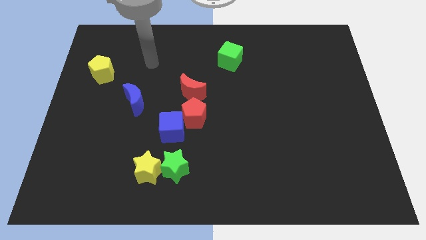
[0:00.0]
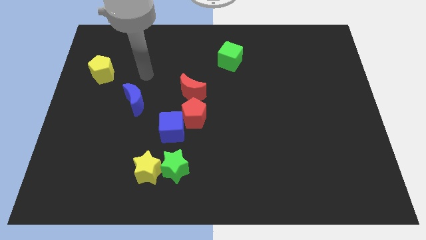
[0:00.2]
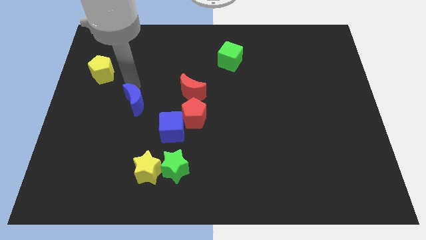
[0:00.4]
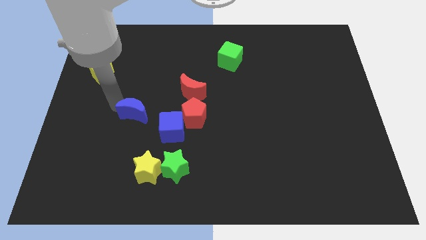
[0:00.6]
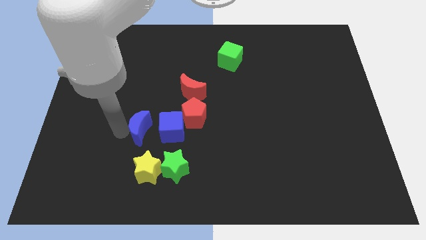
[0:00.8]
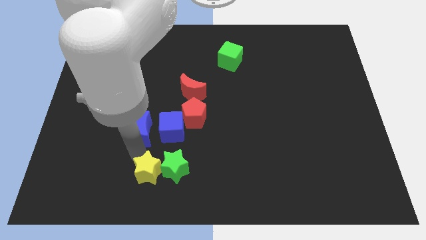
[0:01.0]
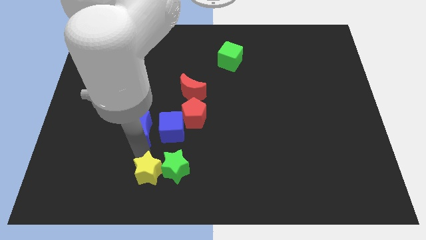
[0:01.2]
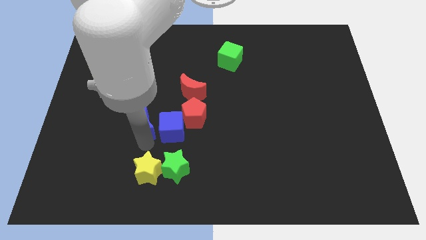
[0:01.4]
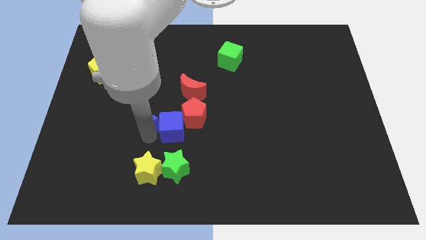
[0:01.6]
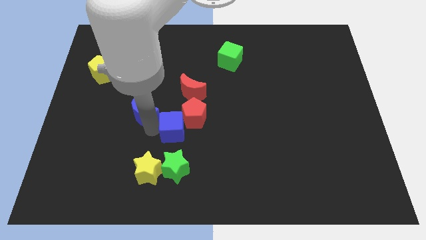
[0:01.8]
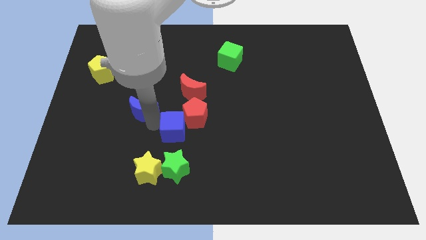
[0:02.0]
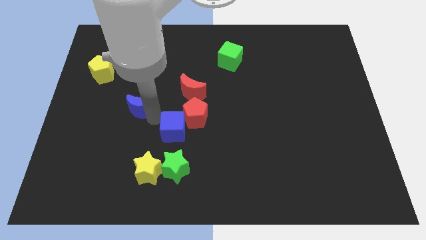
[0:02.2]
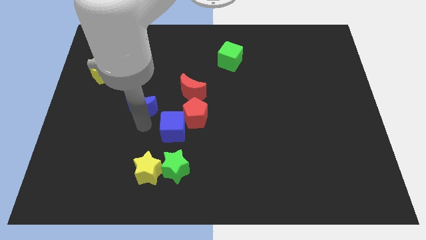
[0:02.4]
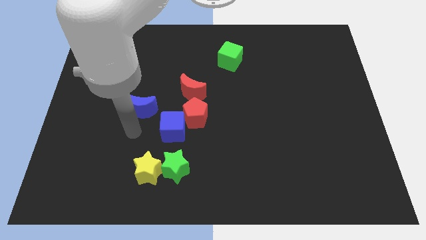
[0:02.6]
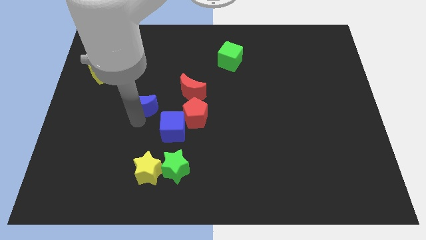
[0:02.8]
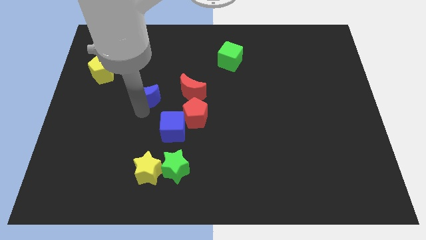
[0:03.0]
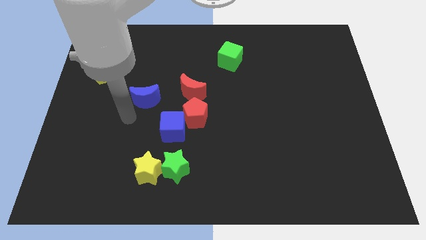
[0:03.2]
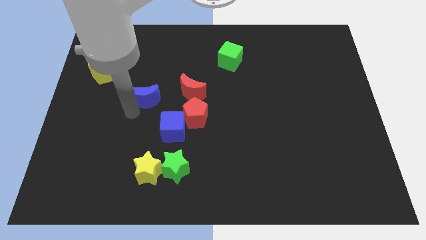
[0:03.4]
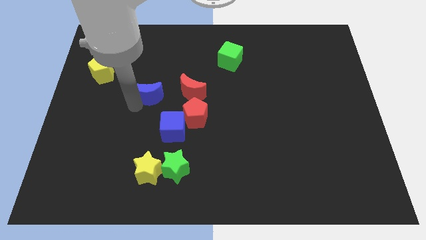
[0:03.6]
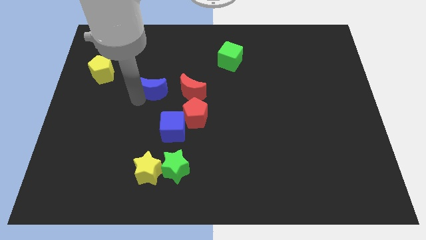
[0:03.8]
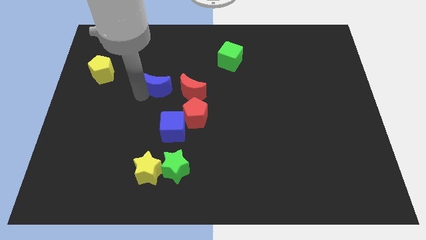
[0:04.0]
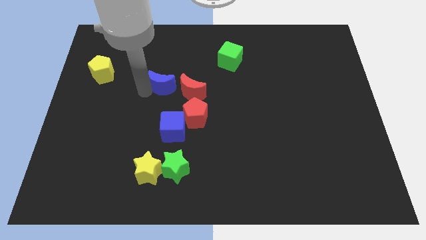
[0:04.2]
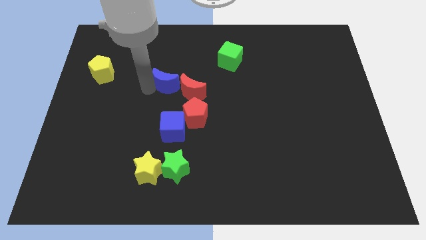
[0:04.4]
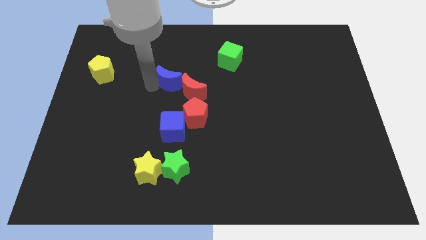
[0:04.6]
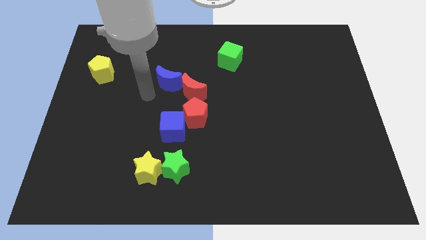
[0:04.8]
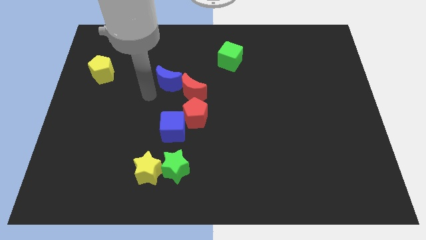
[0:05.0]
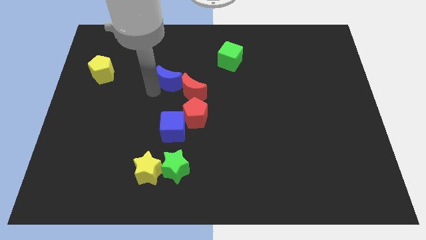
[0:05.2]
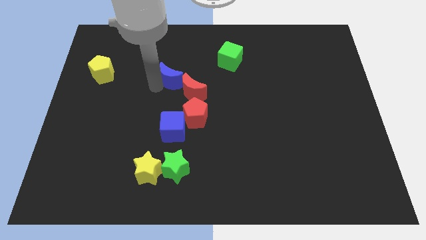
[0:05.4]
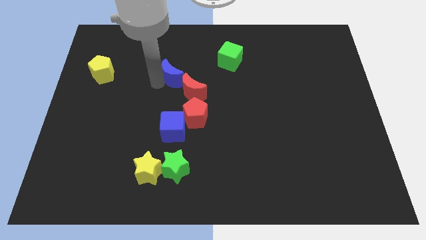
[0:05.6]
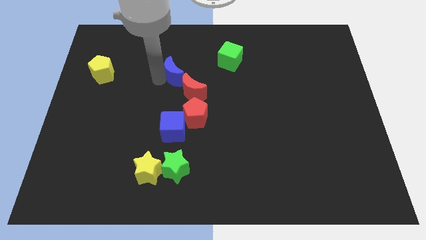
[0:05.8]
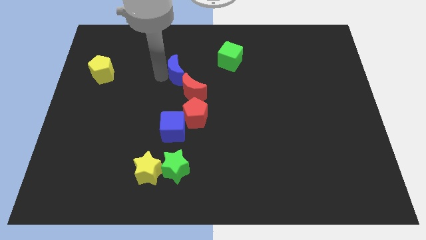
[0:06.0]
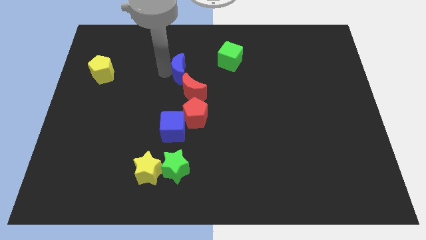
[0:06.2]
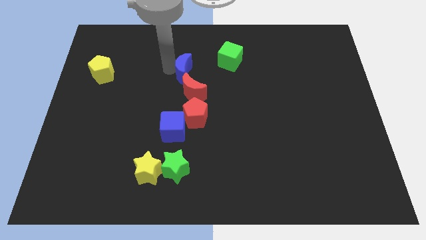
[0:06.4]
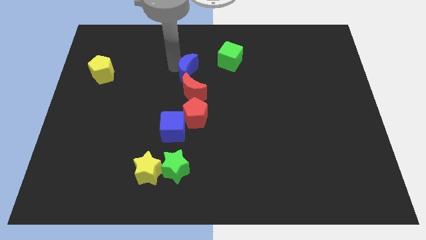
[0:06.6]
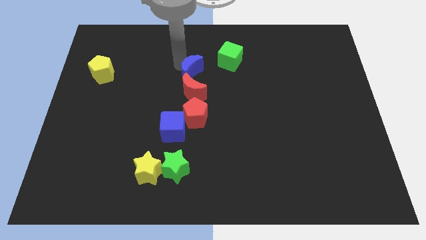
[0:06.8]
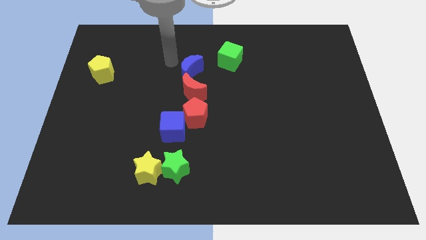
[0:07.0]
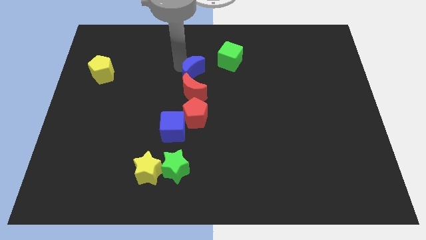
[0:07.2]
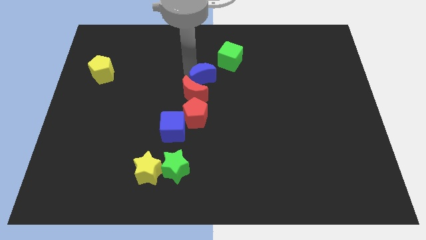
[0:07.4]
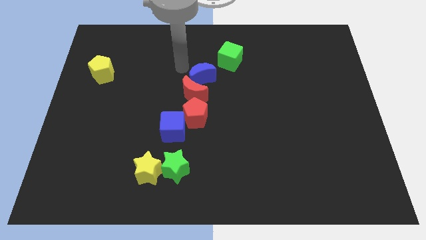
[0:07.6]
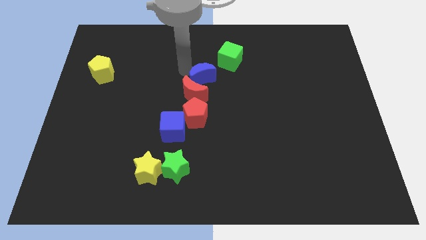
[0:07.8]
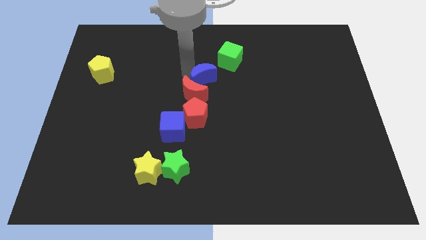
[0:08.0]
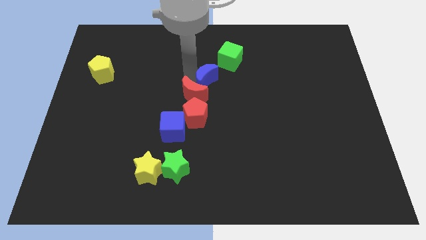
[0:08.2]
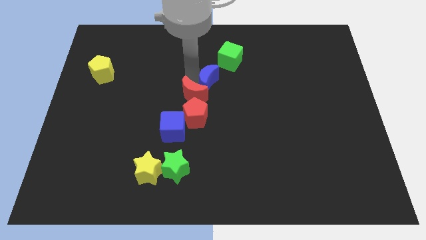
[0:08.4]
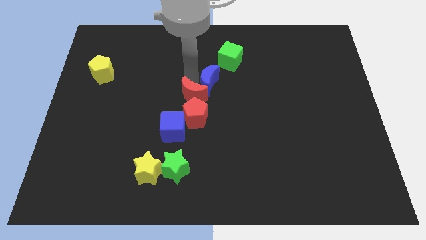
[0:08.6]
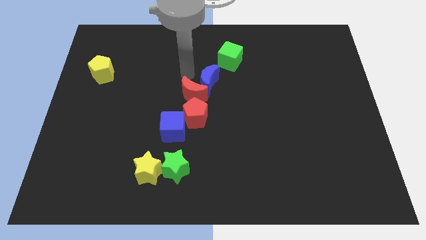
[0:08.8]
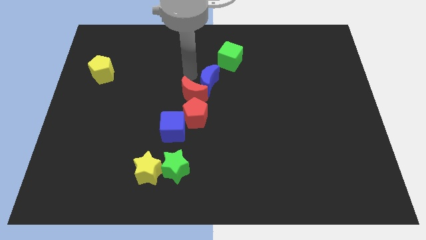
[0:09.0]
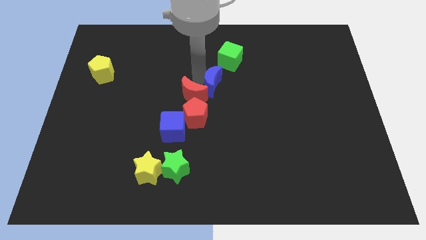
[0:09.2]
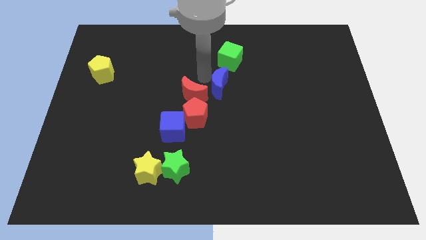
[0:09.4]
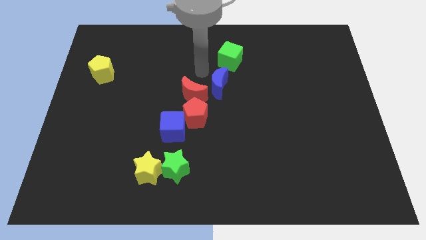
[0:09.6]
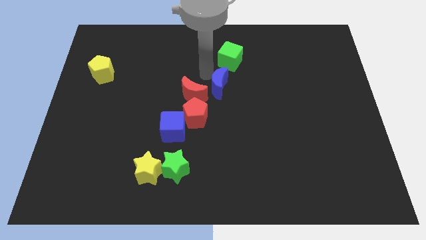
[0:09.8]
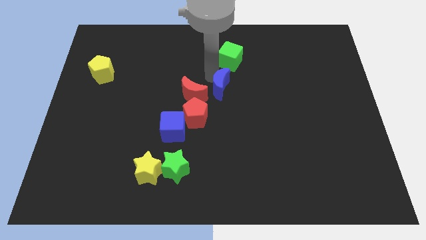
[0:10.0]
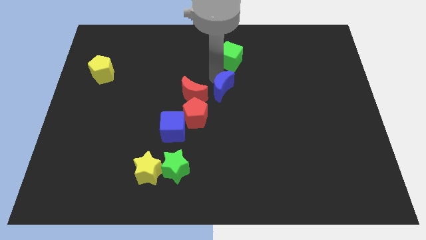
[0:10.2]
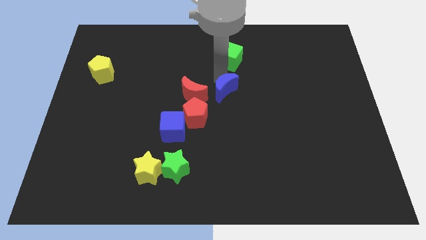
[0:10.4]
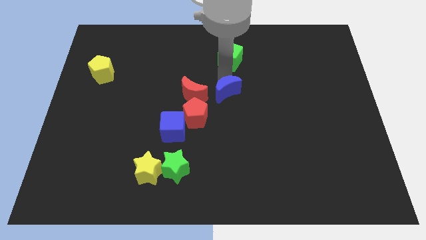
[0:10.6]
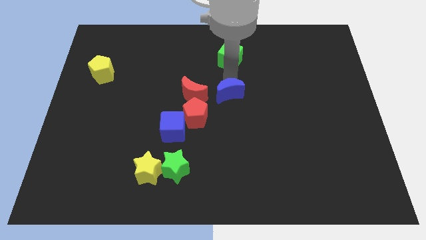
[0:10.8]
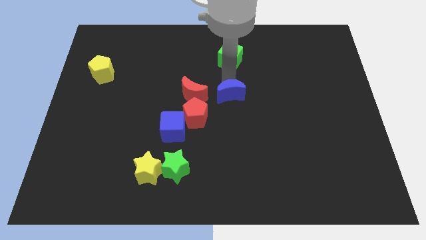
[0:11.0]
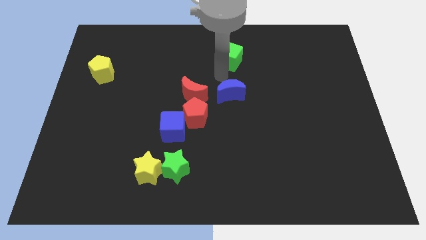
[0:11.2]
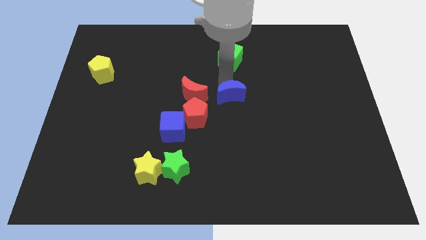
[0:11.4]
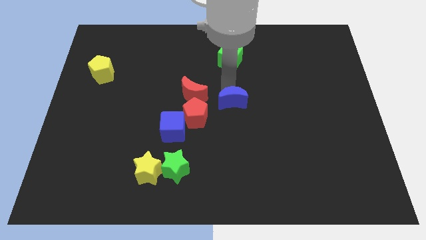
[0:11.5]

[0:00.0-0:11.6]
move the blue moon right of the red pentagon

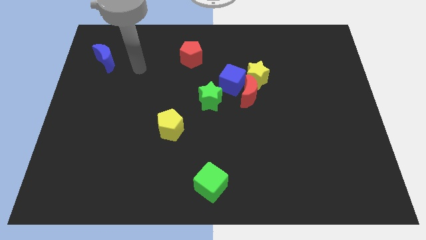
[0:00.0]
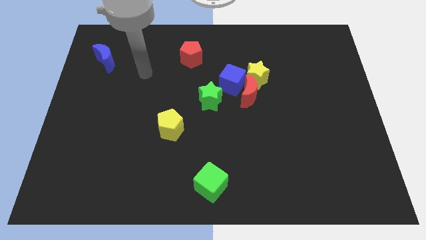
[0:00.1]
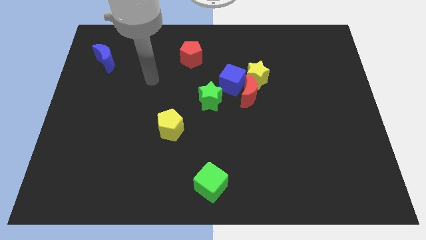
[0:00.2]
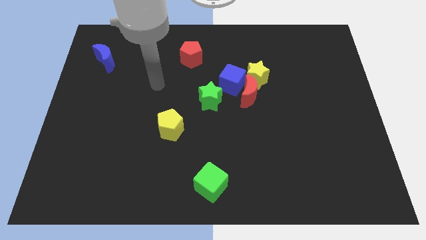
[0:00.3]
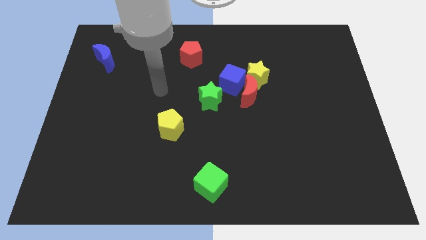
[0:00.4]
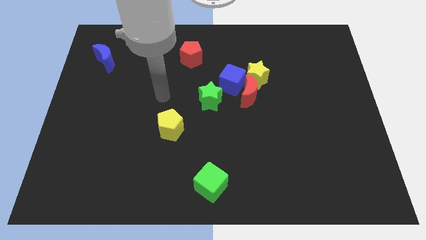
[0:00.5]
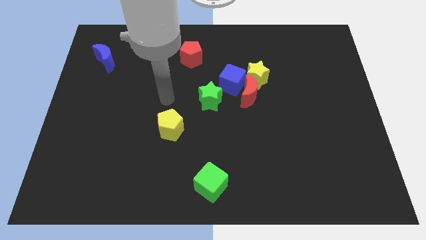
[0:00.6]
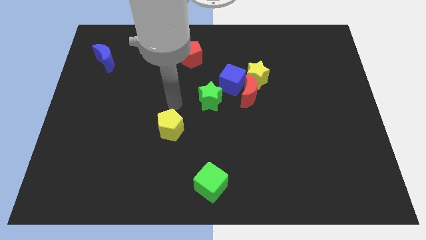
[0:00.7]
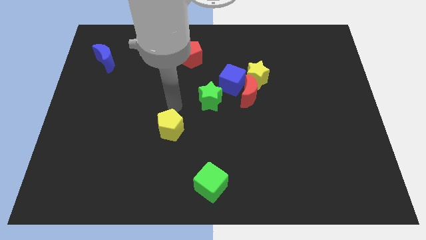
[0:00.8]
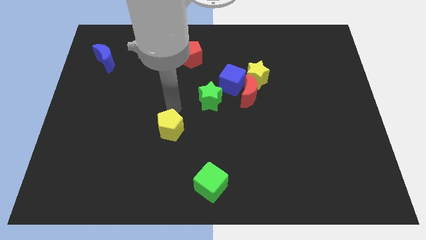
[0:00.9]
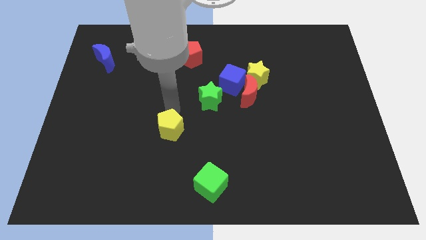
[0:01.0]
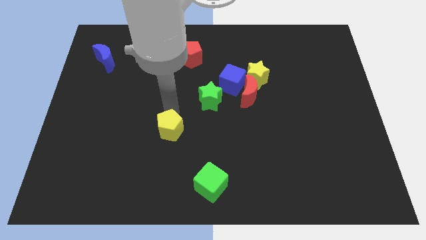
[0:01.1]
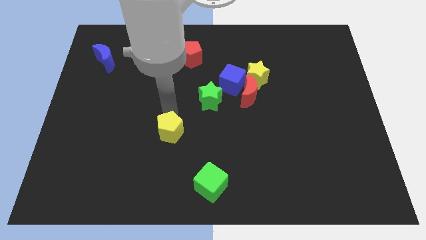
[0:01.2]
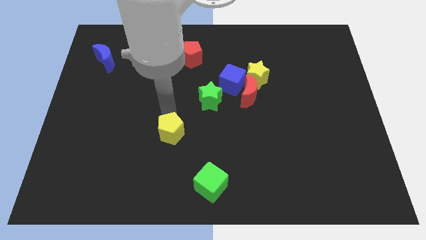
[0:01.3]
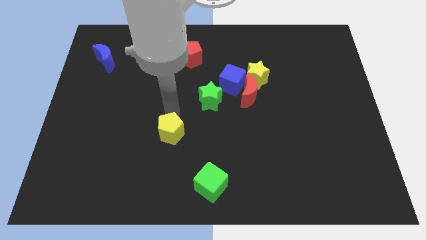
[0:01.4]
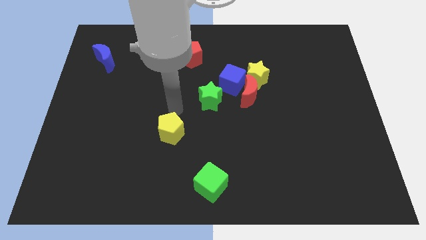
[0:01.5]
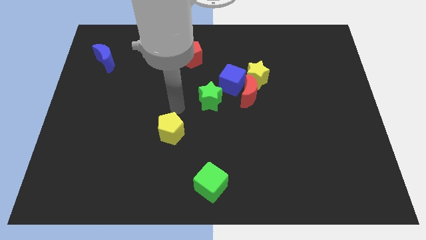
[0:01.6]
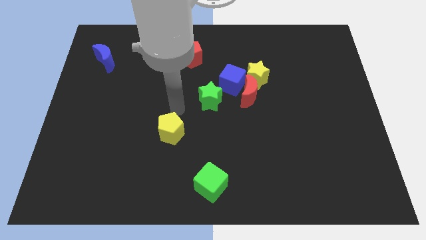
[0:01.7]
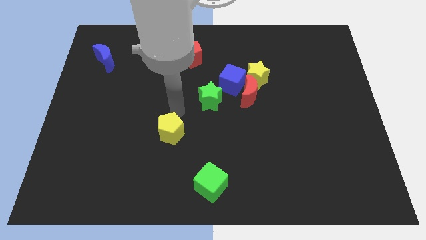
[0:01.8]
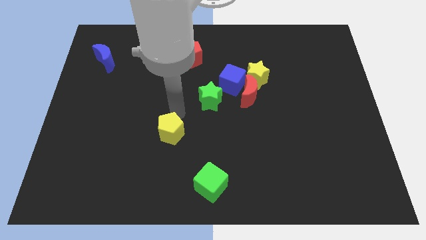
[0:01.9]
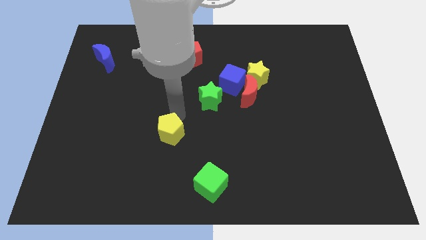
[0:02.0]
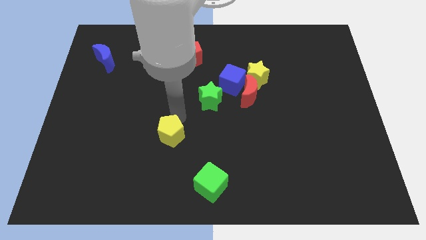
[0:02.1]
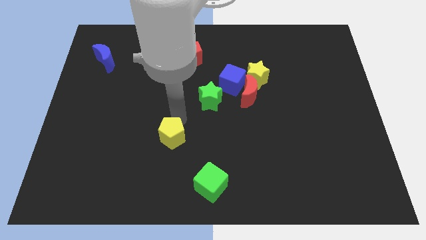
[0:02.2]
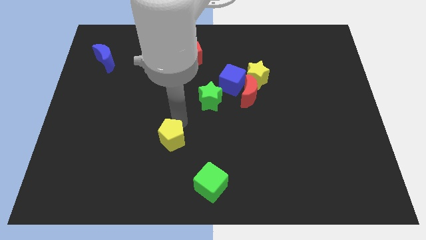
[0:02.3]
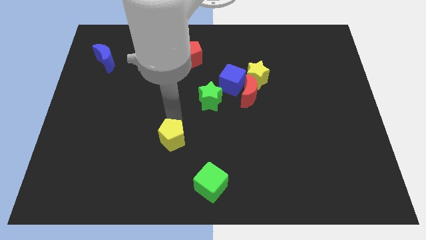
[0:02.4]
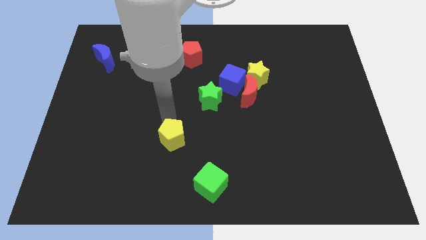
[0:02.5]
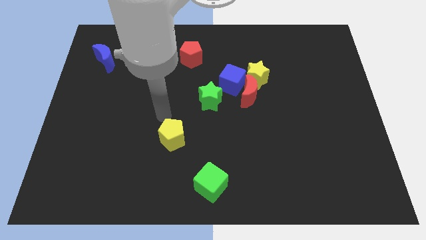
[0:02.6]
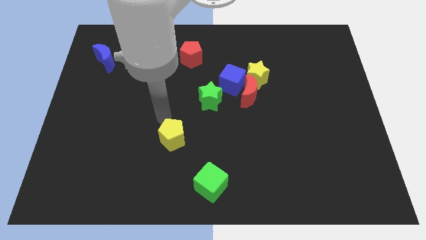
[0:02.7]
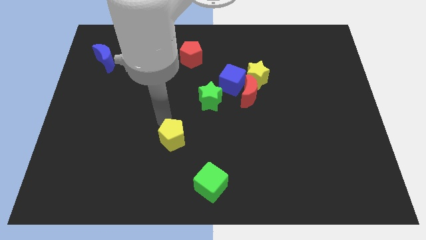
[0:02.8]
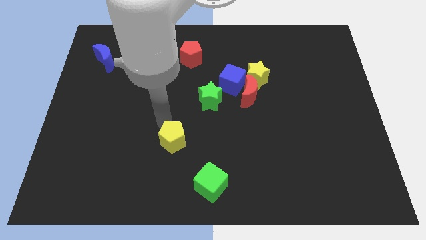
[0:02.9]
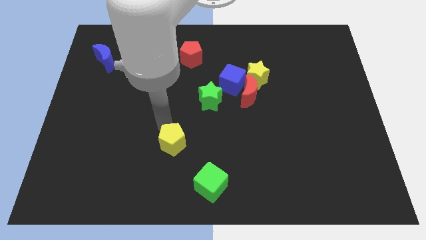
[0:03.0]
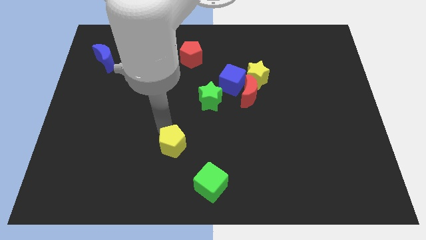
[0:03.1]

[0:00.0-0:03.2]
put the yellow pentagon to the top left side of the green cube
